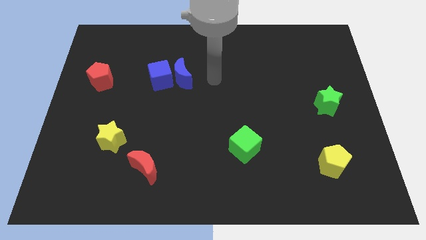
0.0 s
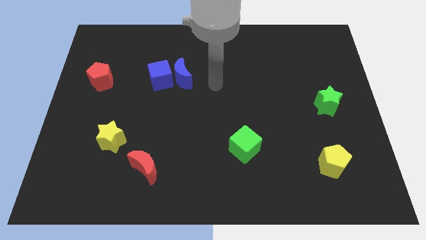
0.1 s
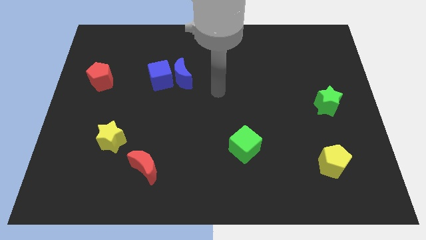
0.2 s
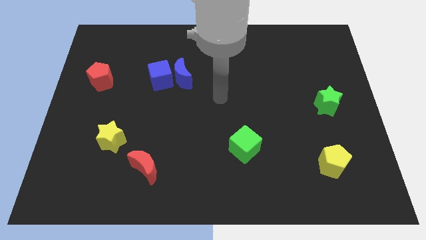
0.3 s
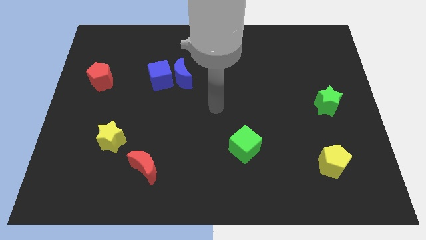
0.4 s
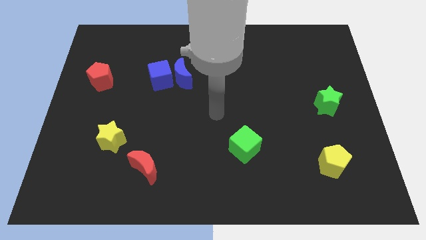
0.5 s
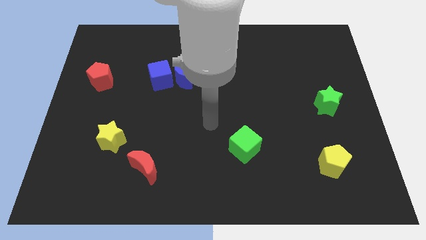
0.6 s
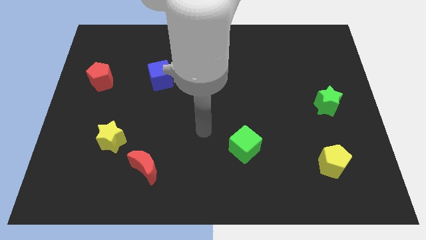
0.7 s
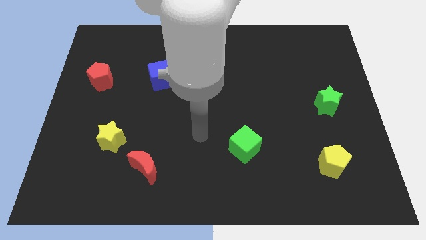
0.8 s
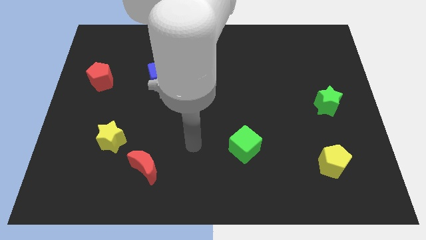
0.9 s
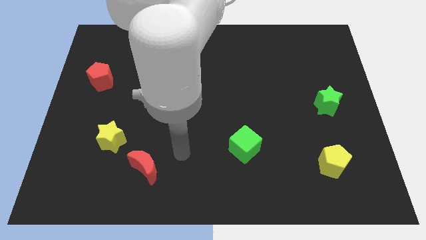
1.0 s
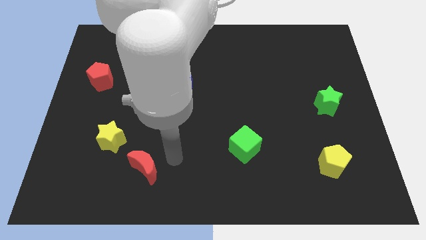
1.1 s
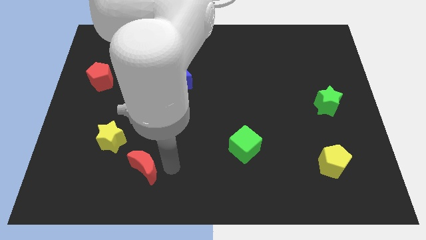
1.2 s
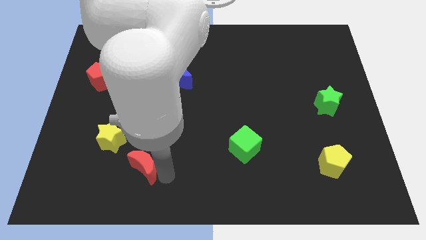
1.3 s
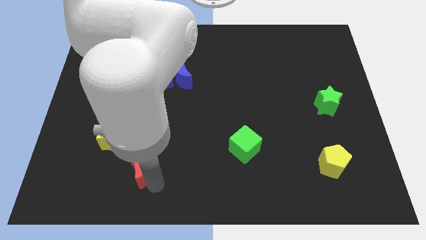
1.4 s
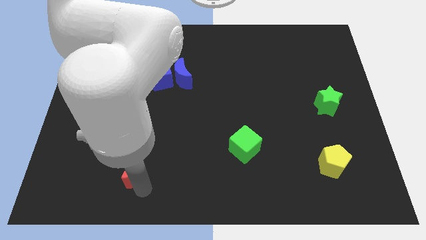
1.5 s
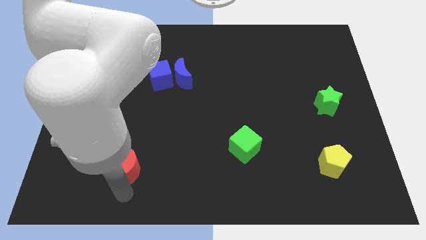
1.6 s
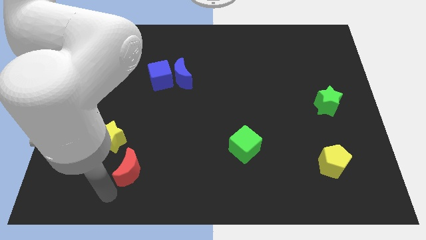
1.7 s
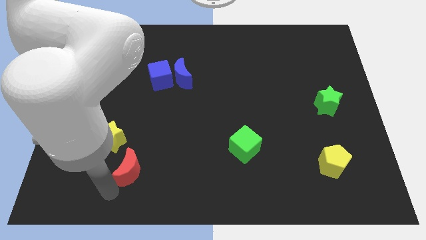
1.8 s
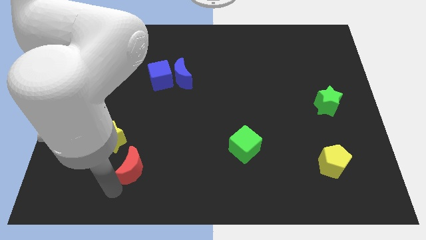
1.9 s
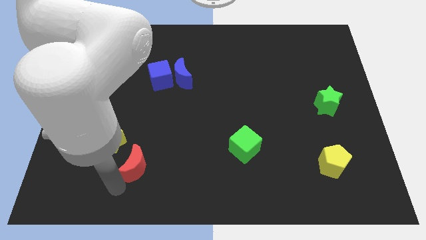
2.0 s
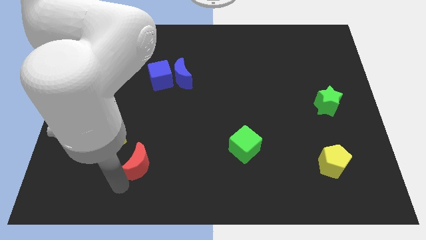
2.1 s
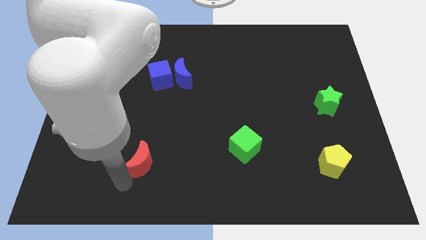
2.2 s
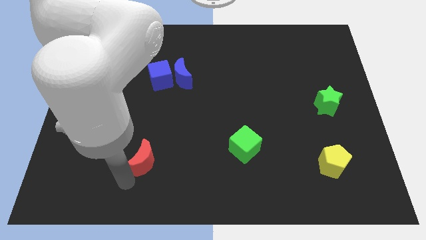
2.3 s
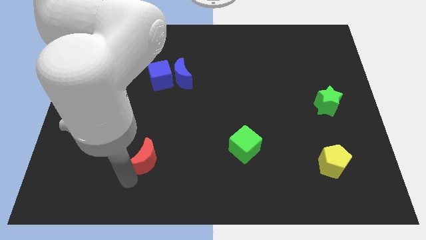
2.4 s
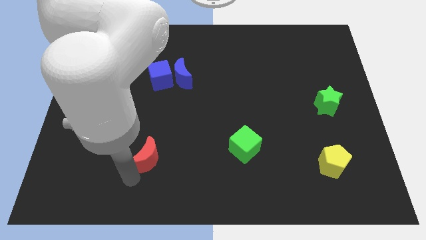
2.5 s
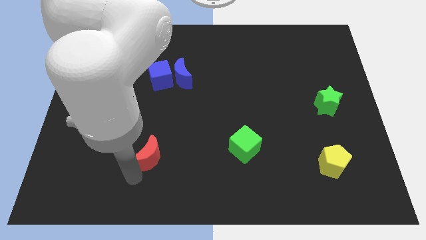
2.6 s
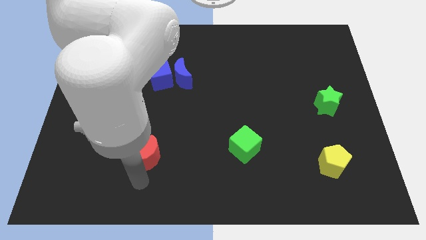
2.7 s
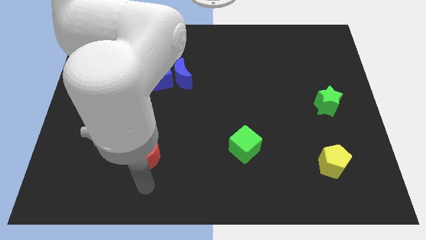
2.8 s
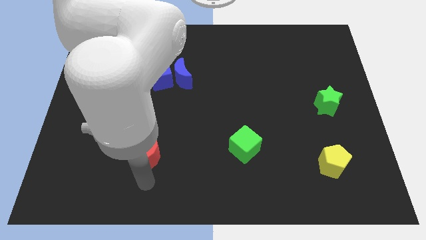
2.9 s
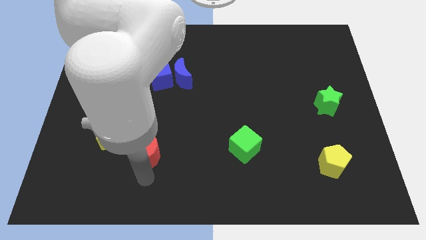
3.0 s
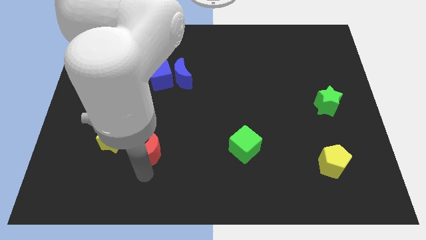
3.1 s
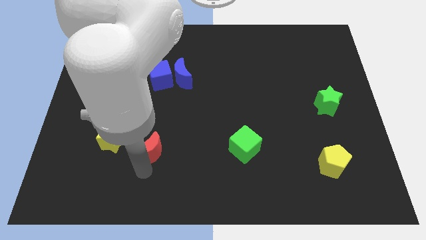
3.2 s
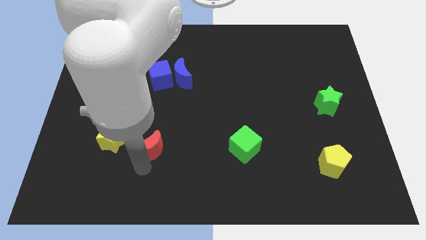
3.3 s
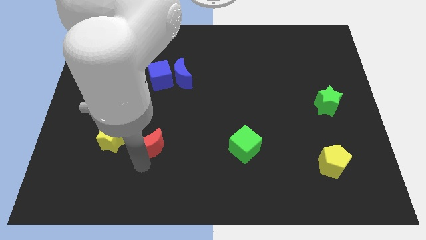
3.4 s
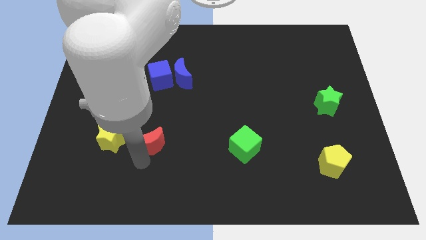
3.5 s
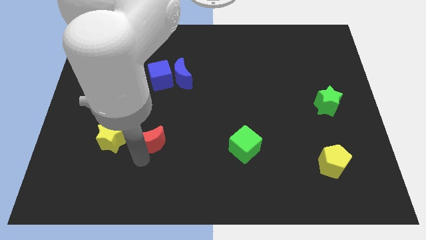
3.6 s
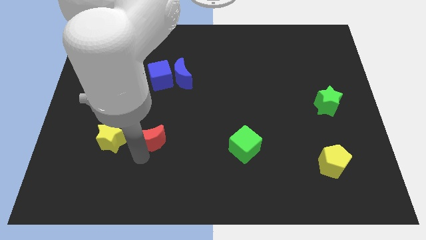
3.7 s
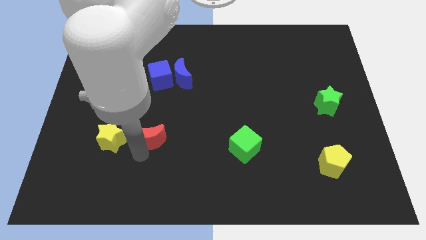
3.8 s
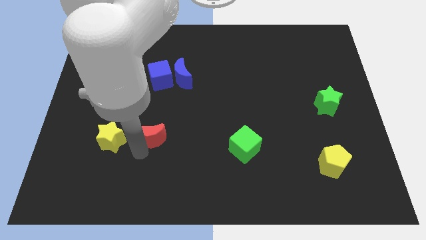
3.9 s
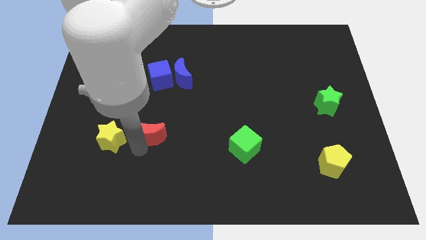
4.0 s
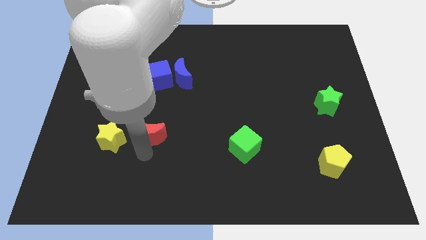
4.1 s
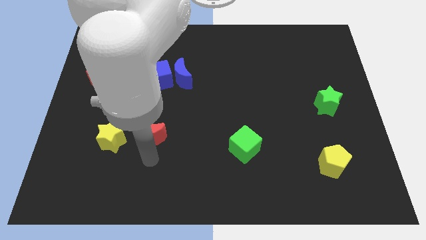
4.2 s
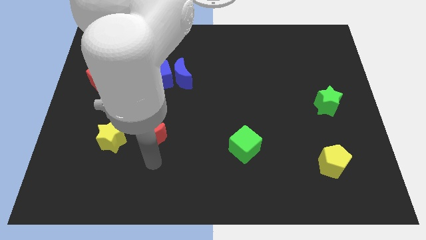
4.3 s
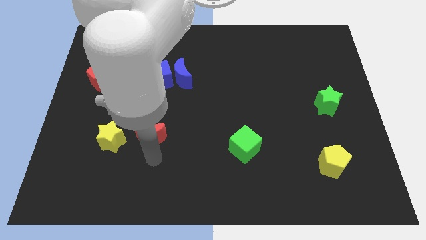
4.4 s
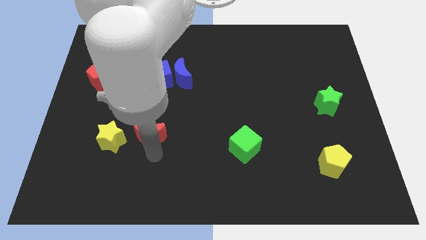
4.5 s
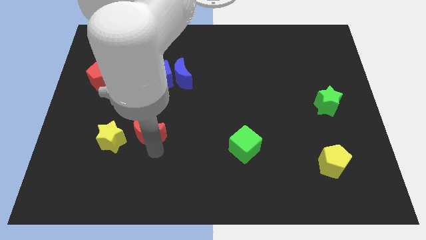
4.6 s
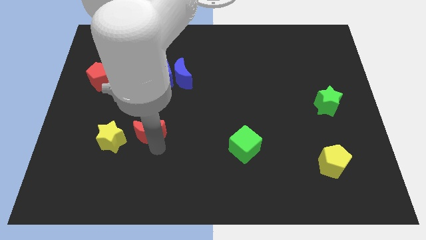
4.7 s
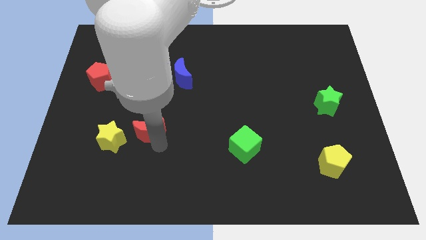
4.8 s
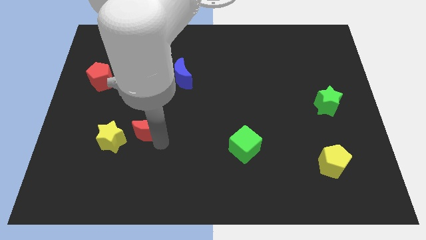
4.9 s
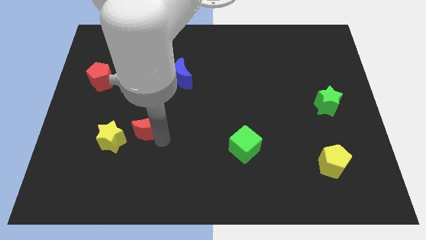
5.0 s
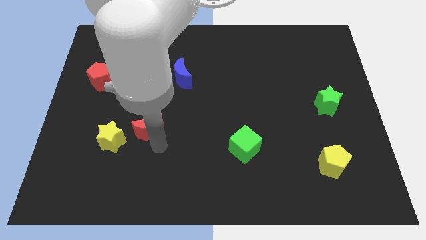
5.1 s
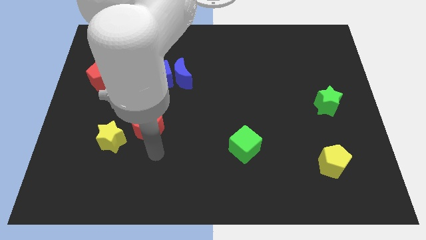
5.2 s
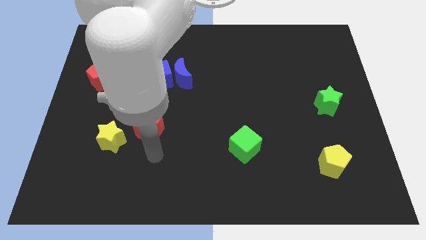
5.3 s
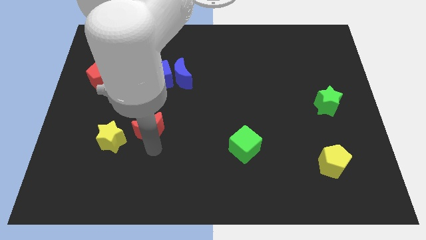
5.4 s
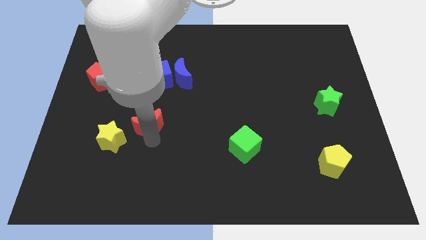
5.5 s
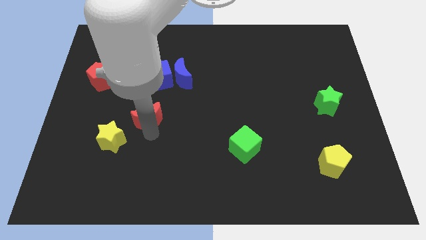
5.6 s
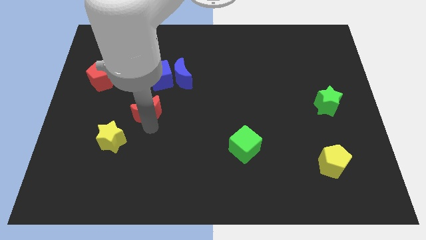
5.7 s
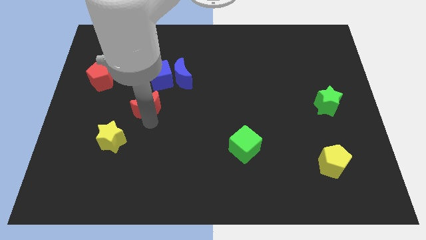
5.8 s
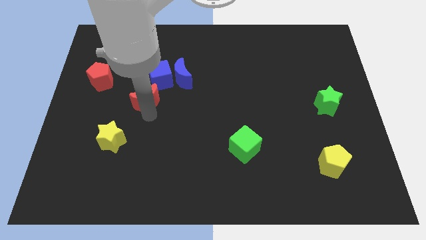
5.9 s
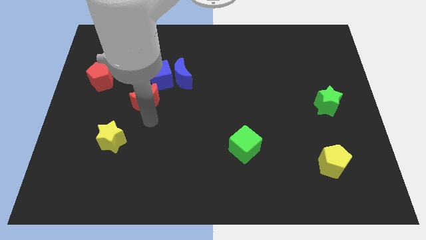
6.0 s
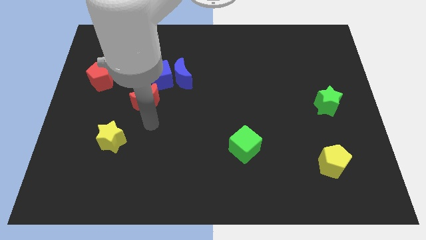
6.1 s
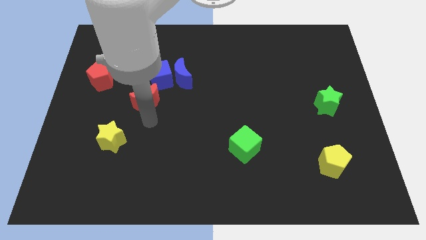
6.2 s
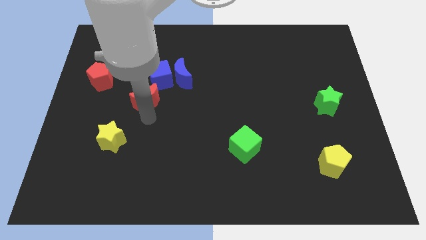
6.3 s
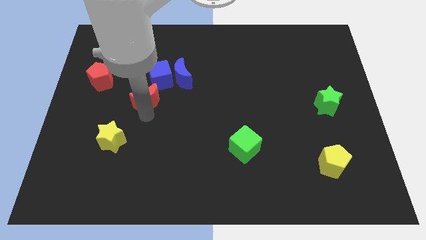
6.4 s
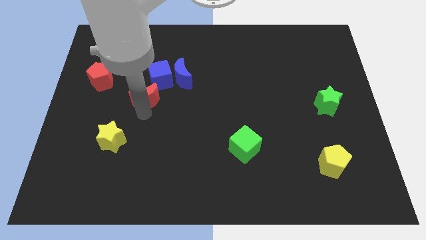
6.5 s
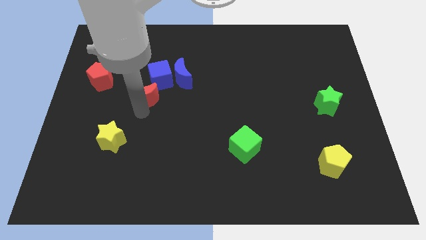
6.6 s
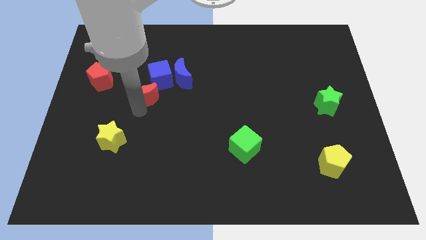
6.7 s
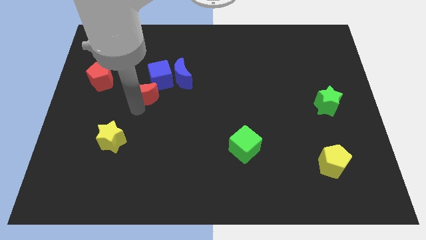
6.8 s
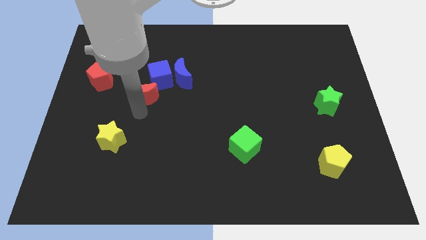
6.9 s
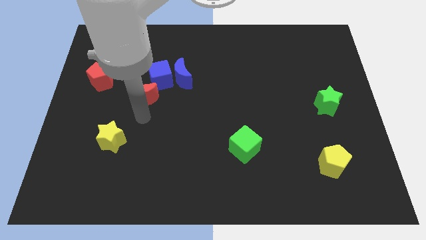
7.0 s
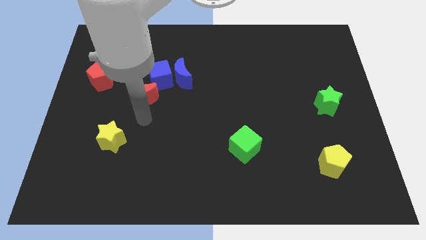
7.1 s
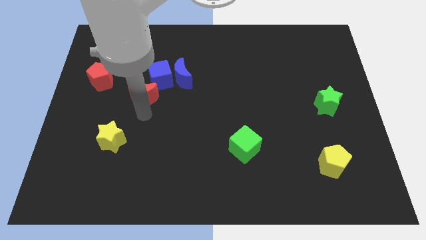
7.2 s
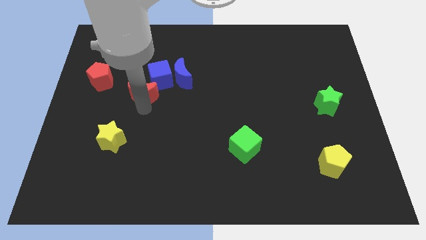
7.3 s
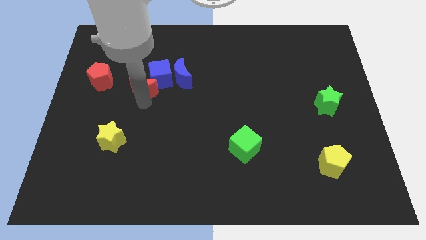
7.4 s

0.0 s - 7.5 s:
slide the red moon up

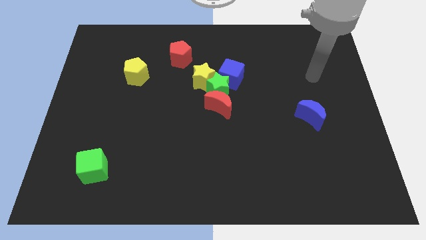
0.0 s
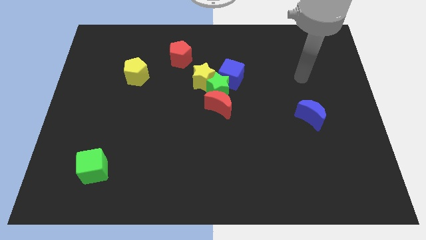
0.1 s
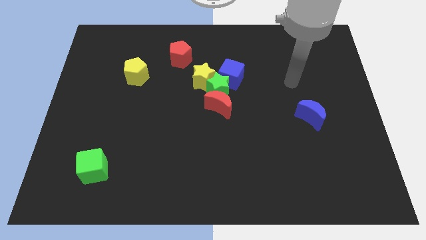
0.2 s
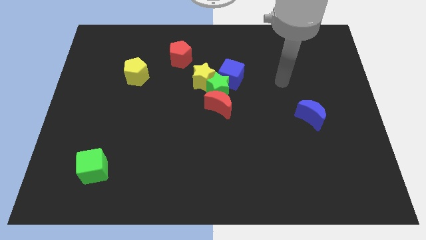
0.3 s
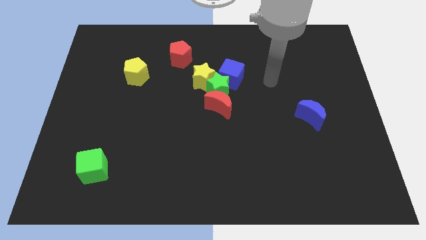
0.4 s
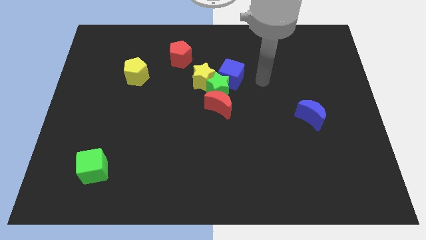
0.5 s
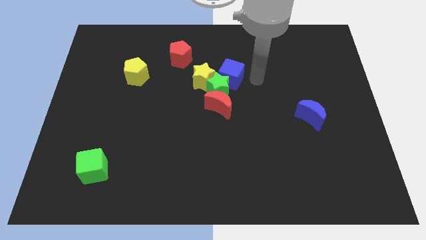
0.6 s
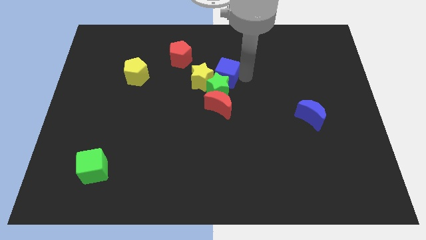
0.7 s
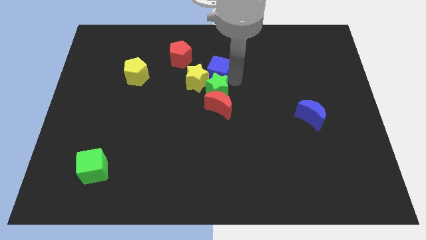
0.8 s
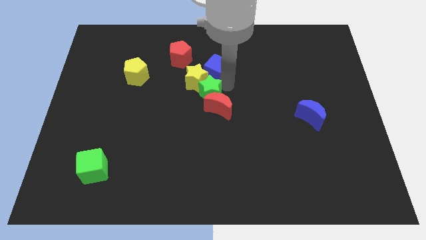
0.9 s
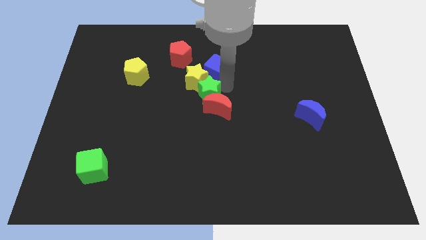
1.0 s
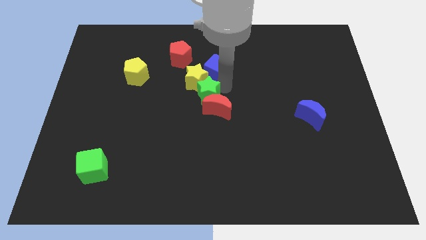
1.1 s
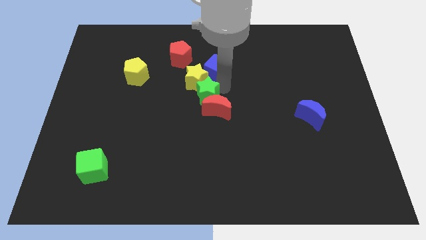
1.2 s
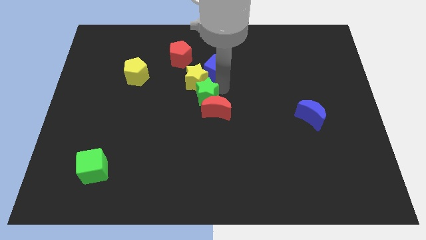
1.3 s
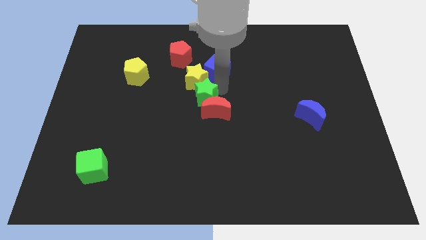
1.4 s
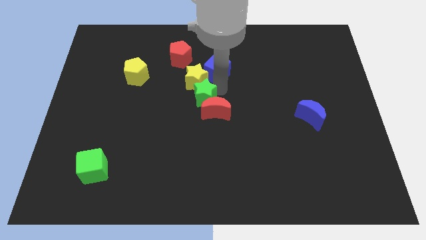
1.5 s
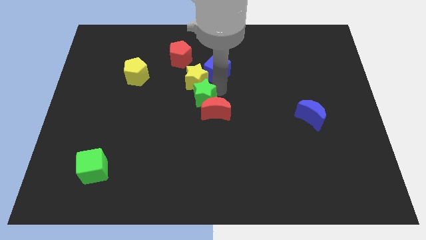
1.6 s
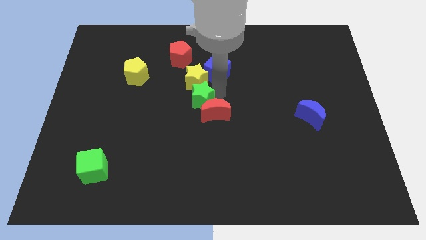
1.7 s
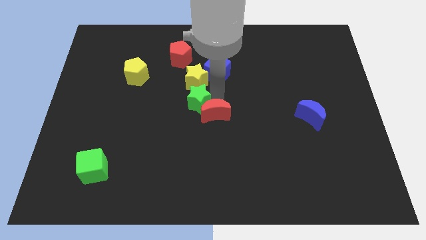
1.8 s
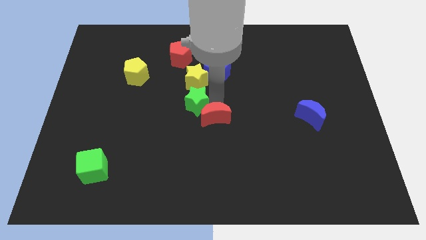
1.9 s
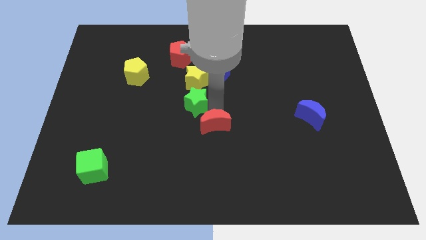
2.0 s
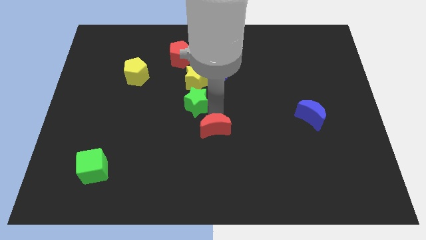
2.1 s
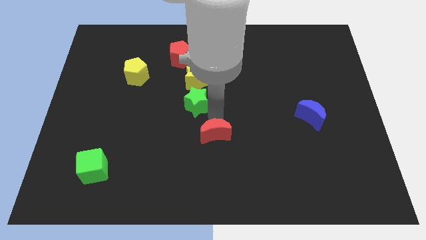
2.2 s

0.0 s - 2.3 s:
slide the red moon down a little bit
